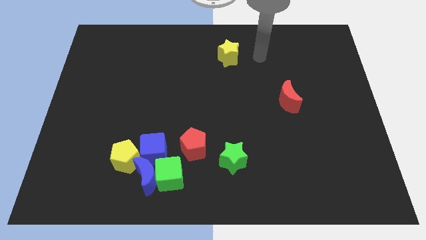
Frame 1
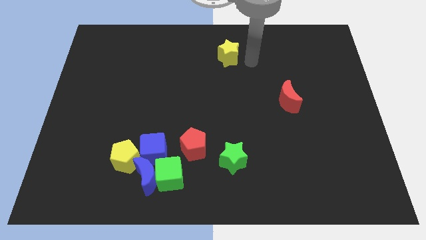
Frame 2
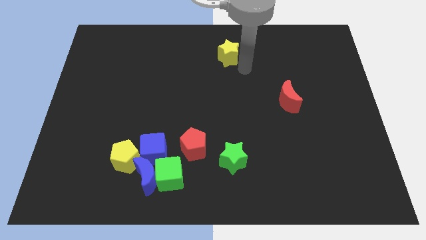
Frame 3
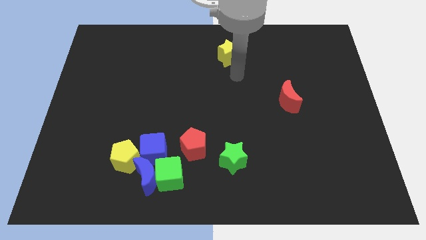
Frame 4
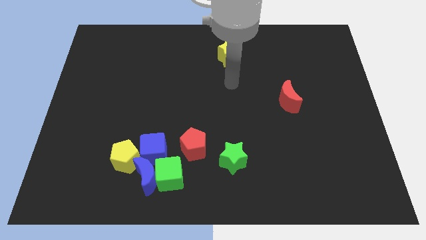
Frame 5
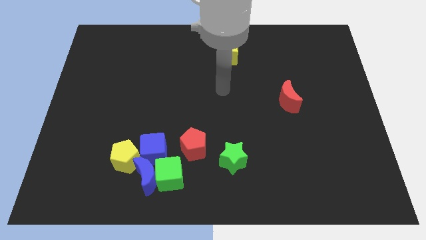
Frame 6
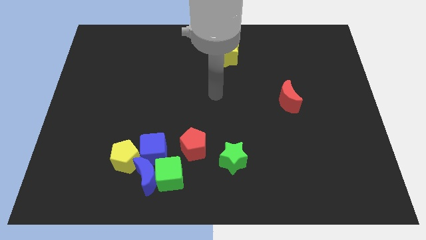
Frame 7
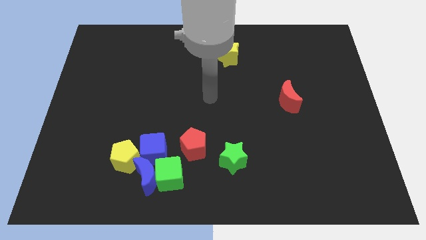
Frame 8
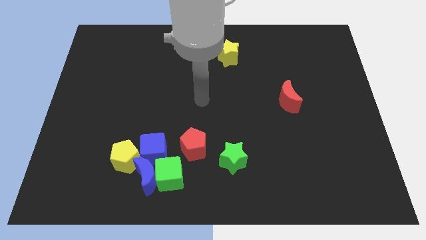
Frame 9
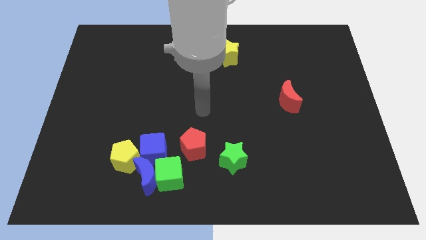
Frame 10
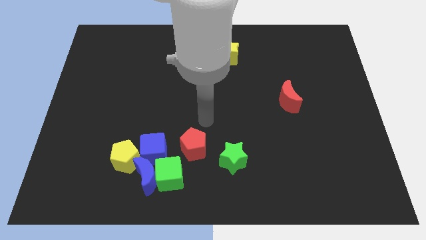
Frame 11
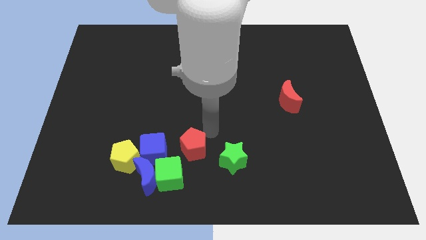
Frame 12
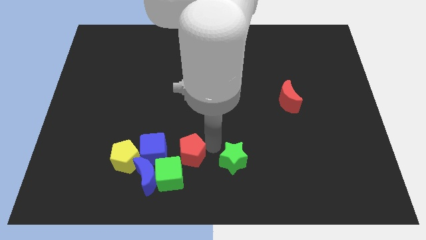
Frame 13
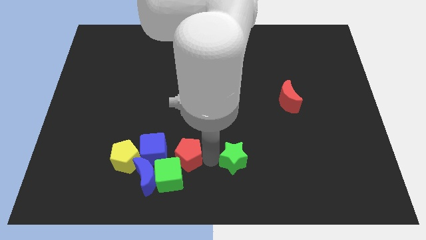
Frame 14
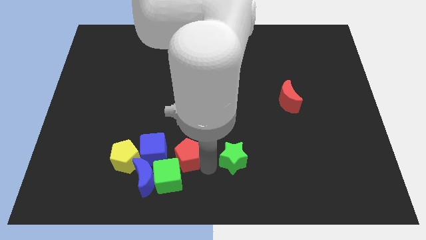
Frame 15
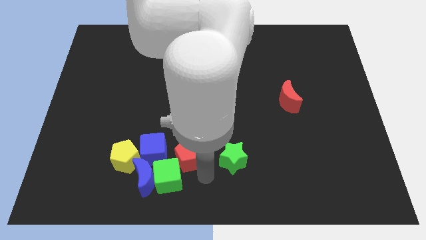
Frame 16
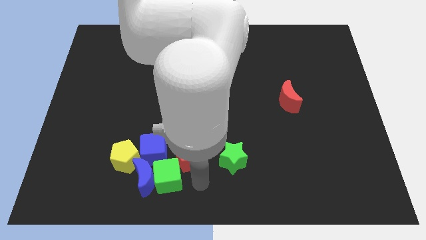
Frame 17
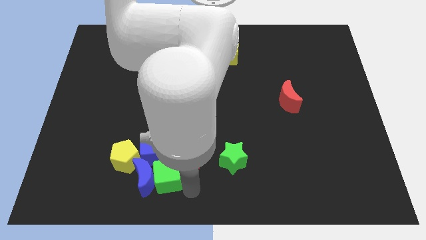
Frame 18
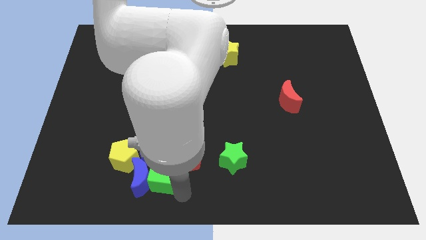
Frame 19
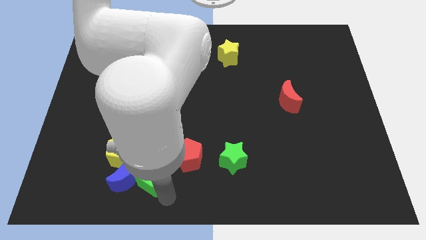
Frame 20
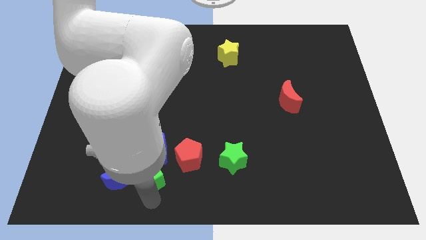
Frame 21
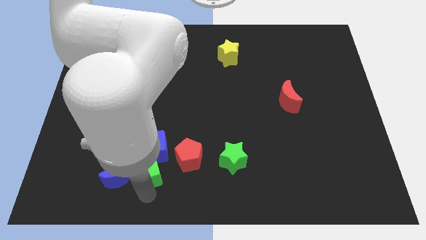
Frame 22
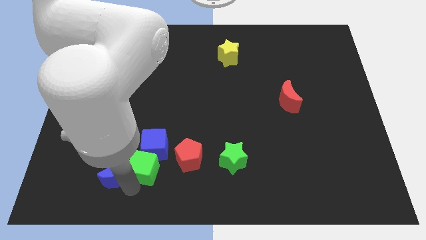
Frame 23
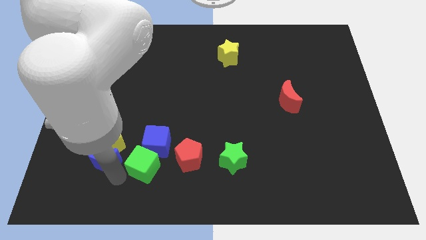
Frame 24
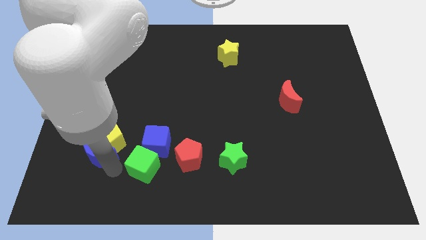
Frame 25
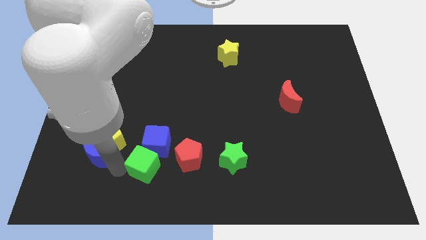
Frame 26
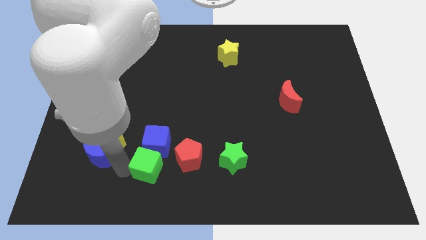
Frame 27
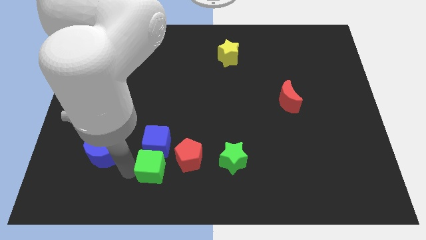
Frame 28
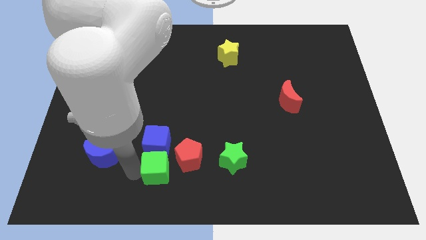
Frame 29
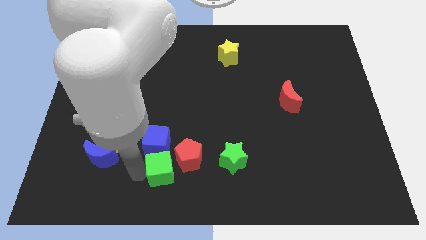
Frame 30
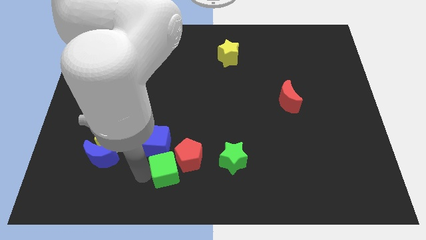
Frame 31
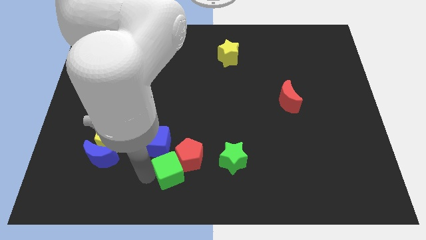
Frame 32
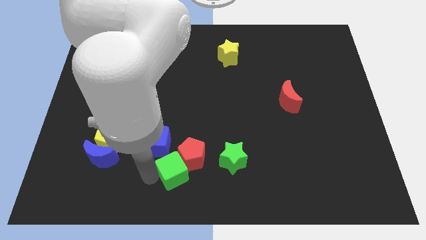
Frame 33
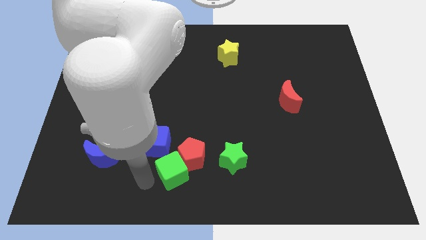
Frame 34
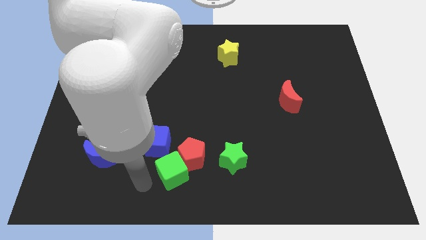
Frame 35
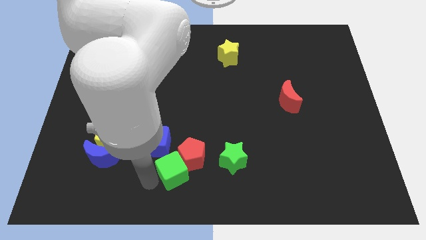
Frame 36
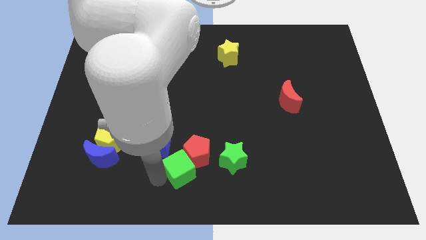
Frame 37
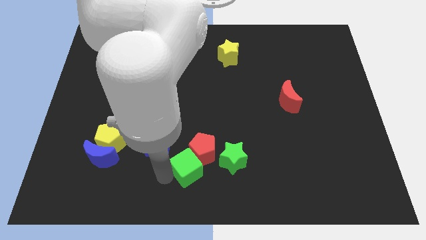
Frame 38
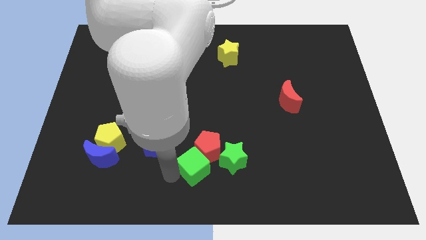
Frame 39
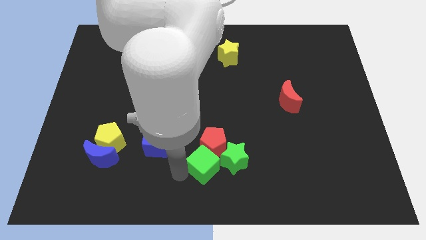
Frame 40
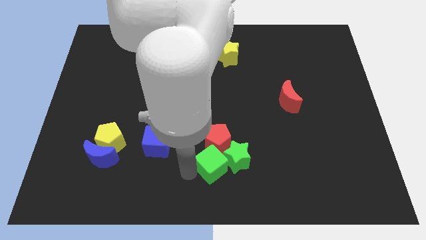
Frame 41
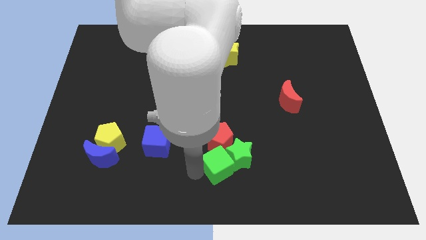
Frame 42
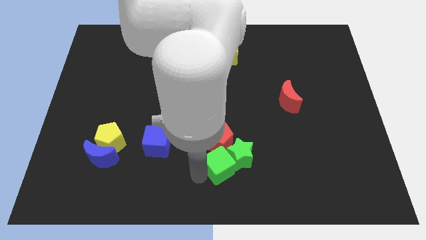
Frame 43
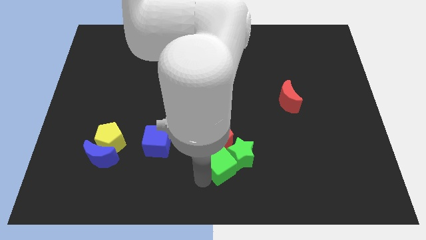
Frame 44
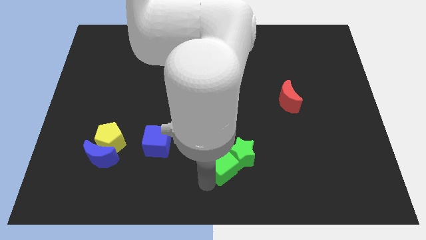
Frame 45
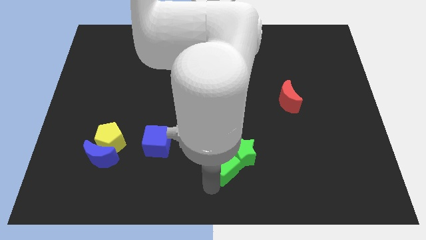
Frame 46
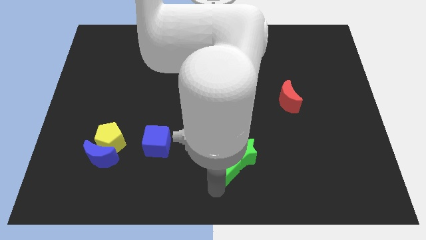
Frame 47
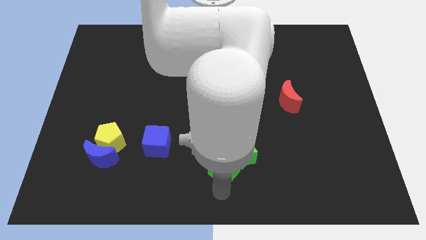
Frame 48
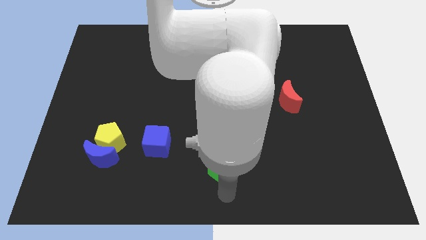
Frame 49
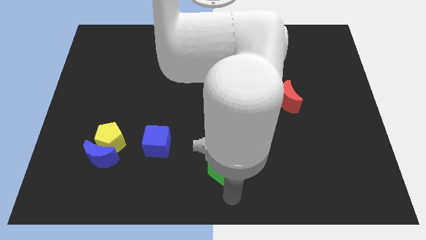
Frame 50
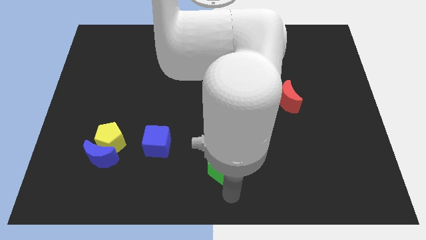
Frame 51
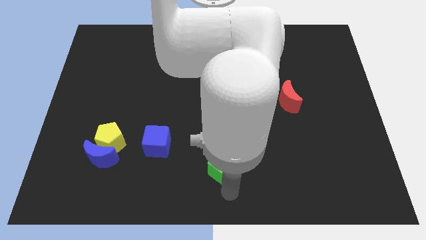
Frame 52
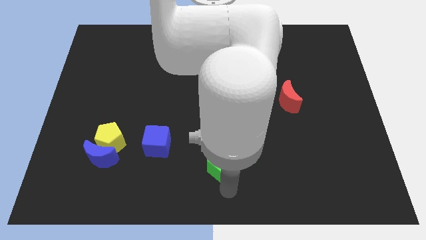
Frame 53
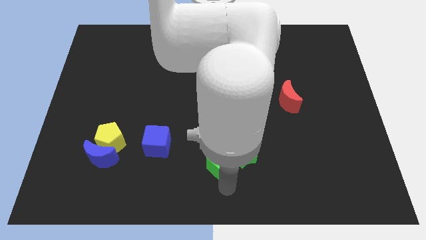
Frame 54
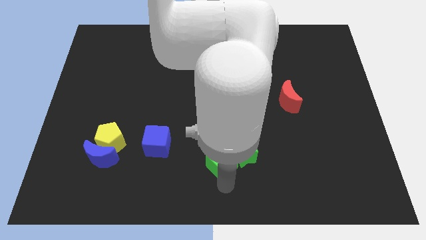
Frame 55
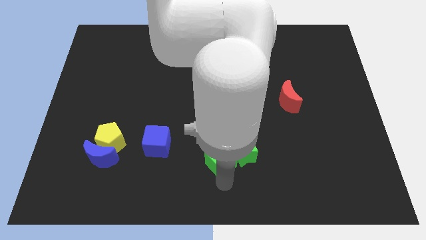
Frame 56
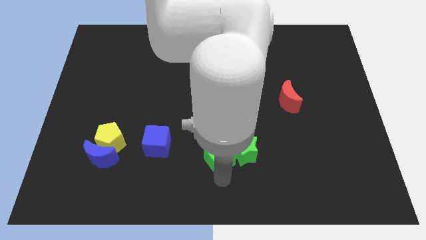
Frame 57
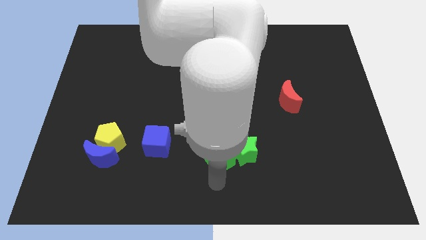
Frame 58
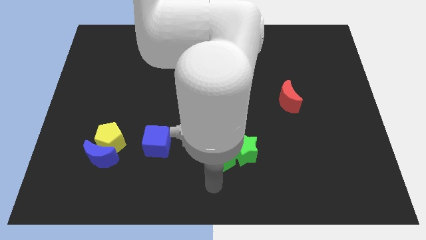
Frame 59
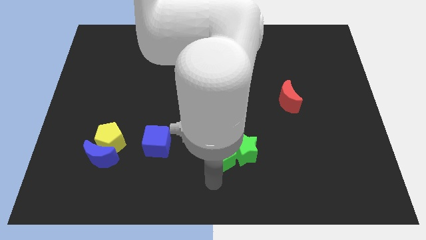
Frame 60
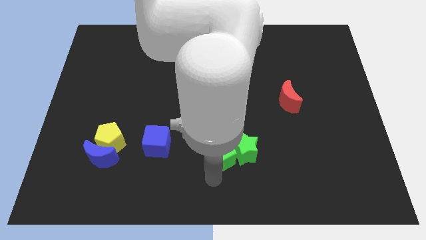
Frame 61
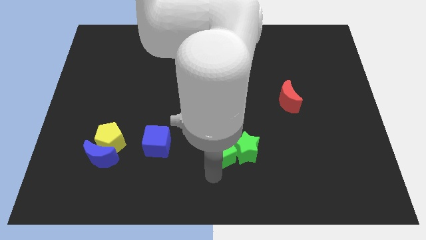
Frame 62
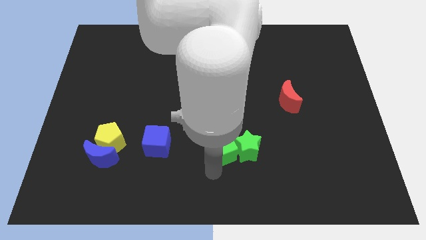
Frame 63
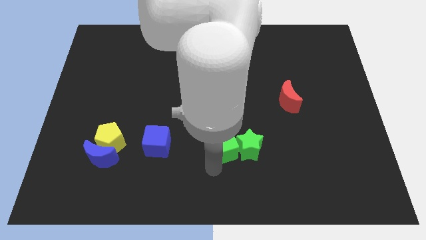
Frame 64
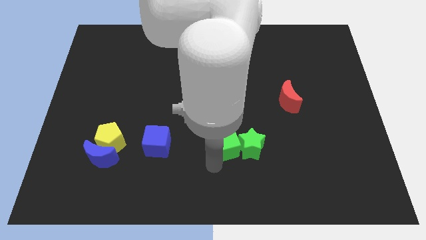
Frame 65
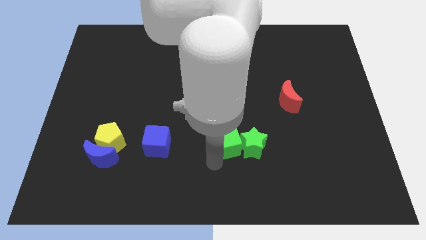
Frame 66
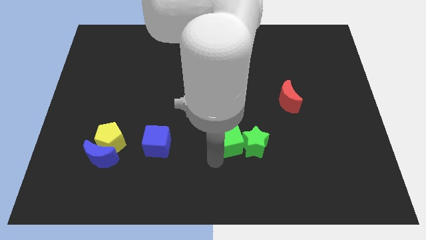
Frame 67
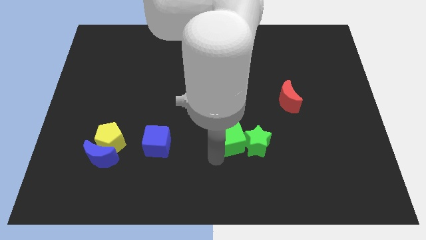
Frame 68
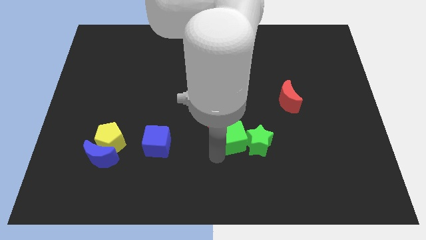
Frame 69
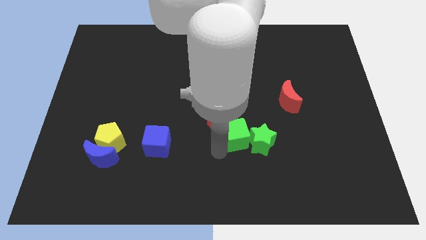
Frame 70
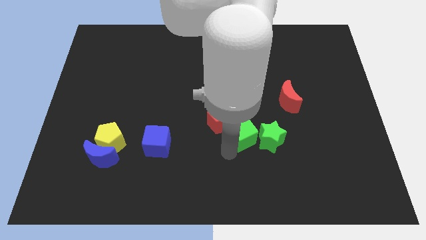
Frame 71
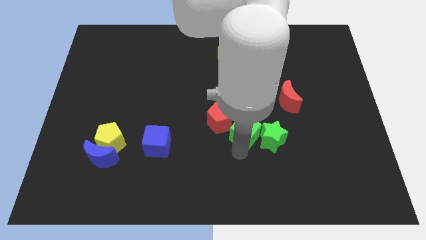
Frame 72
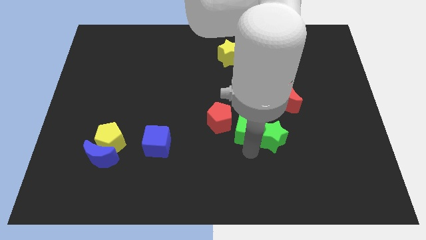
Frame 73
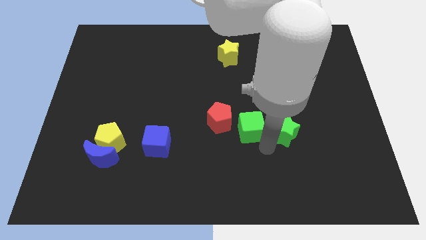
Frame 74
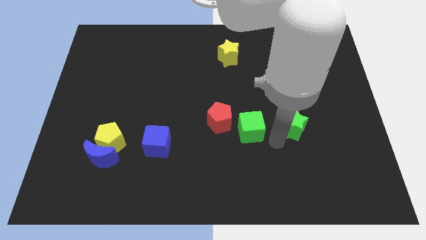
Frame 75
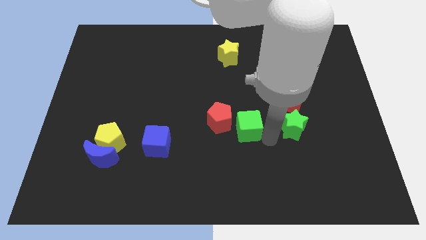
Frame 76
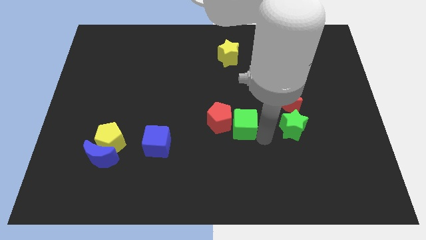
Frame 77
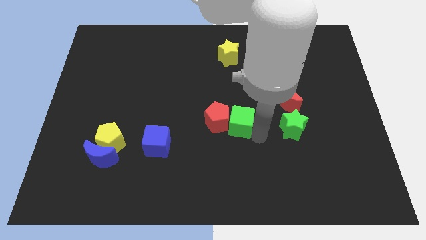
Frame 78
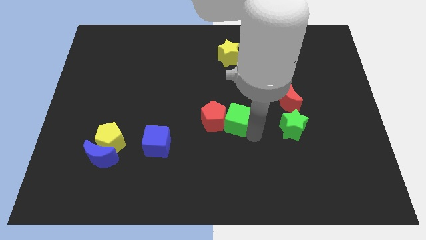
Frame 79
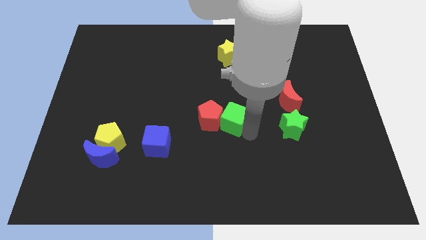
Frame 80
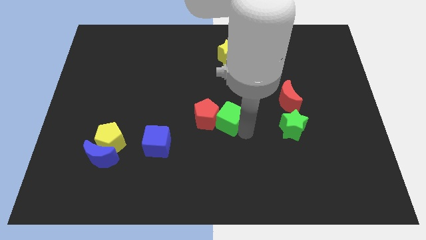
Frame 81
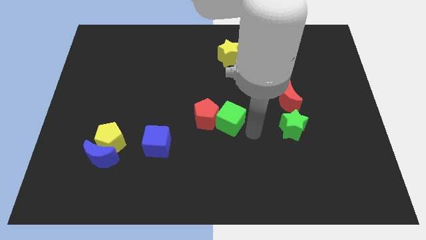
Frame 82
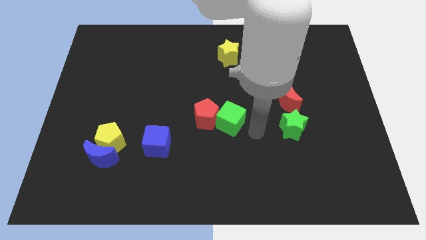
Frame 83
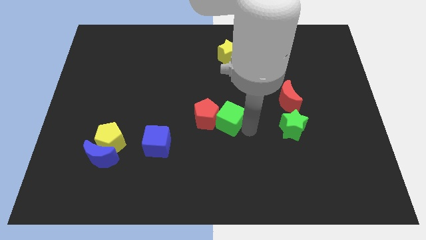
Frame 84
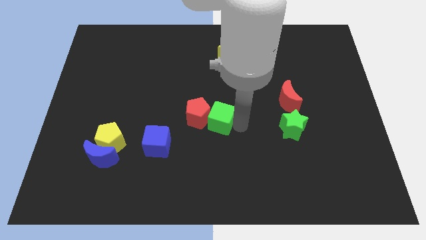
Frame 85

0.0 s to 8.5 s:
slightly move the green cube upwards
